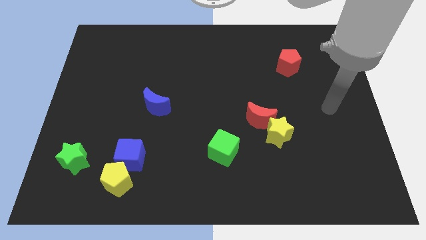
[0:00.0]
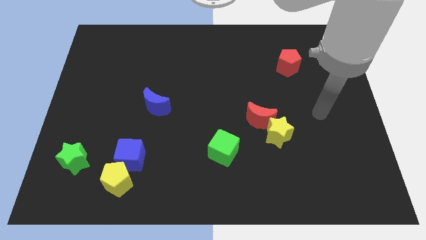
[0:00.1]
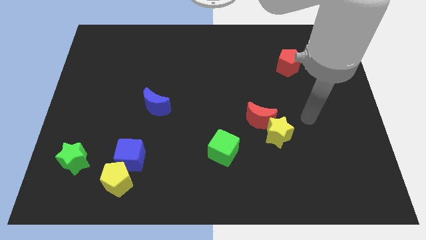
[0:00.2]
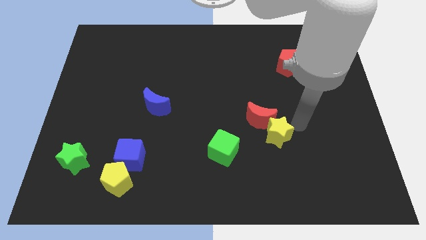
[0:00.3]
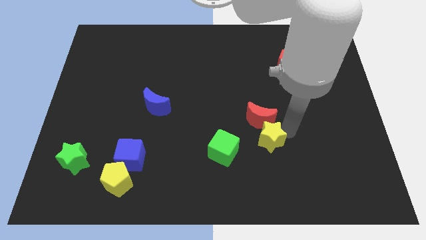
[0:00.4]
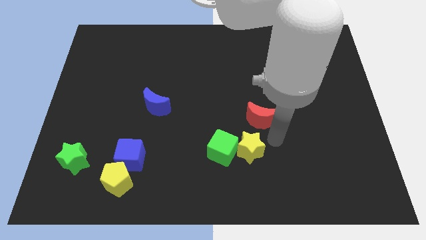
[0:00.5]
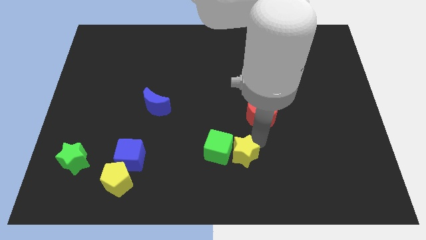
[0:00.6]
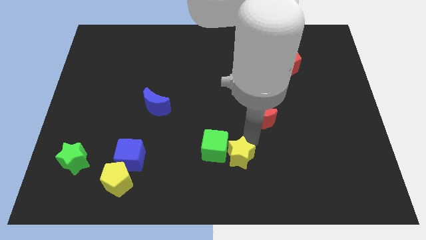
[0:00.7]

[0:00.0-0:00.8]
separate the red moon from the yellow star

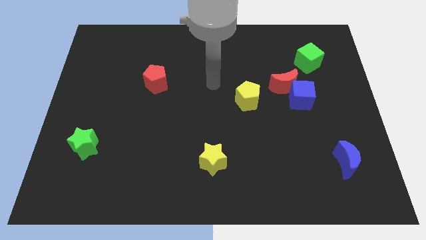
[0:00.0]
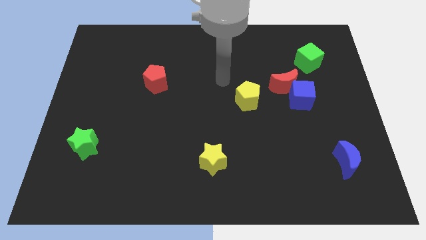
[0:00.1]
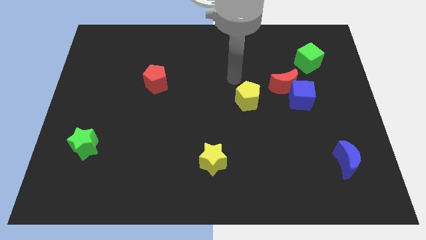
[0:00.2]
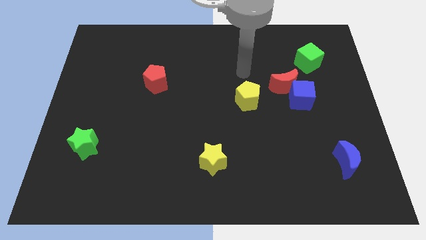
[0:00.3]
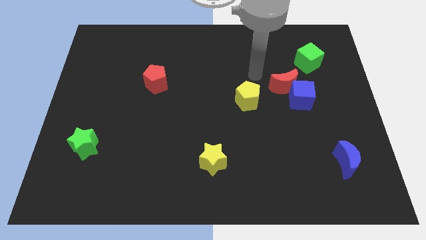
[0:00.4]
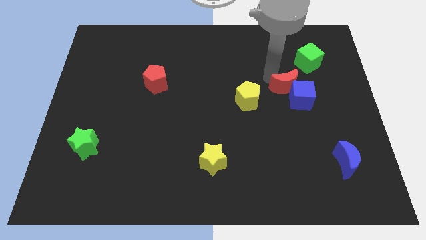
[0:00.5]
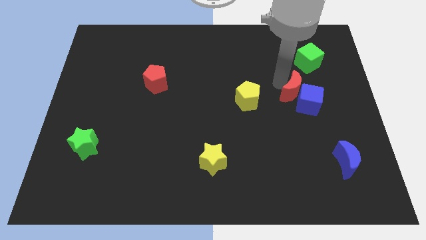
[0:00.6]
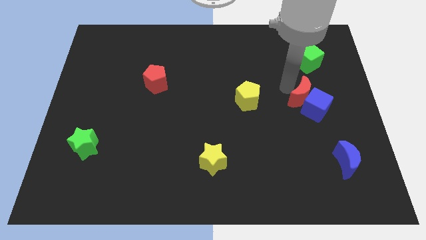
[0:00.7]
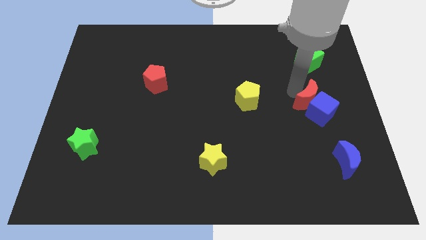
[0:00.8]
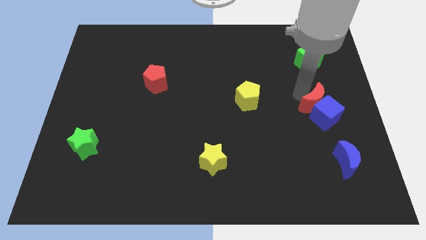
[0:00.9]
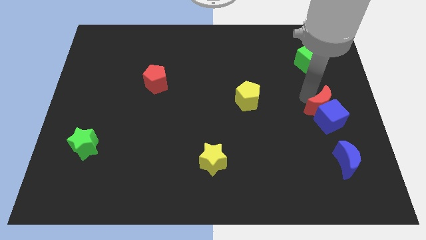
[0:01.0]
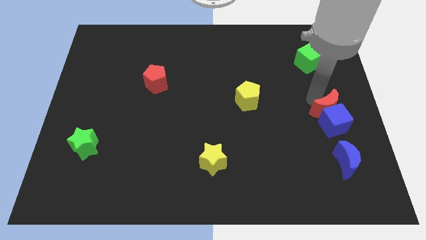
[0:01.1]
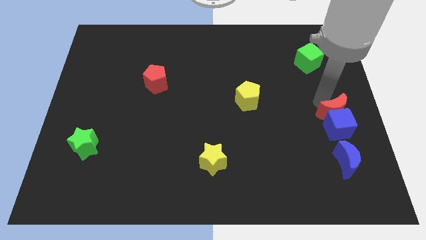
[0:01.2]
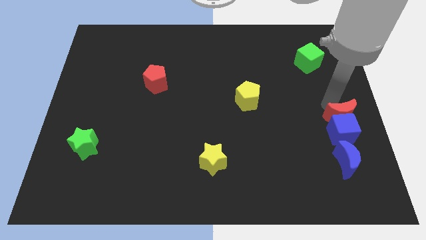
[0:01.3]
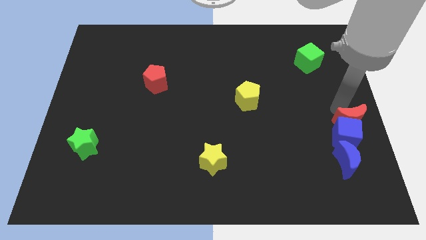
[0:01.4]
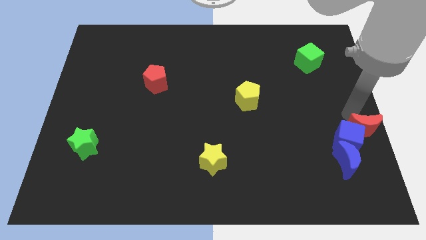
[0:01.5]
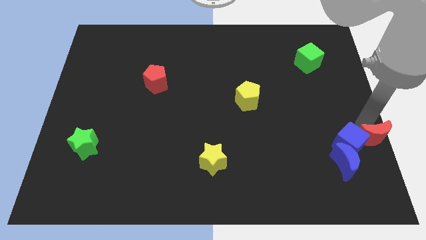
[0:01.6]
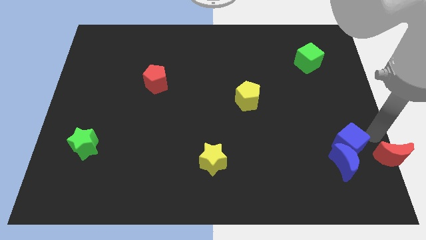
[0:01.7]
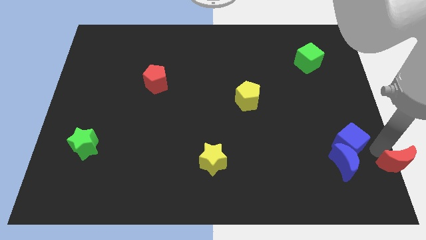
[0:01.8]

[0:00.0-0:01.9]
separate the blue cube from the red moon

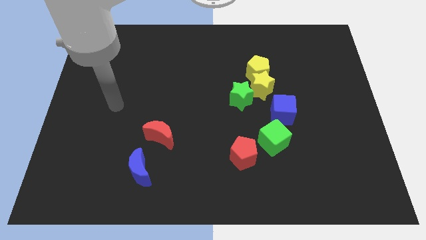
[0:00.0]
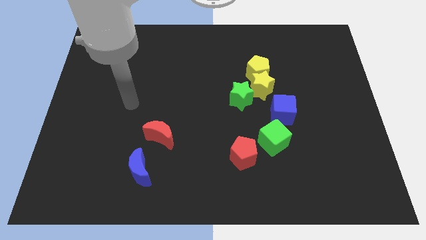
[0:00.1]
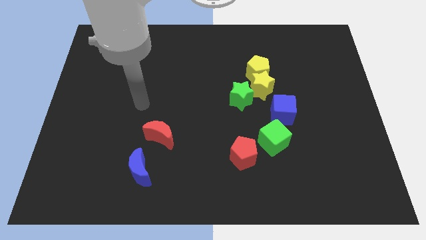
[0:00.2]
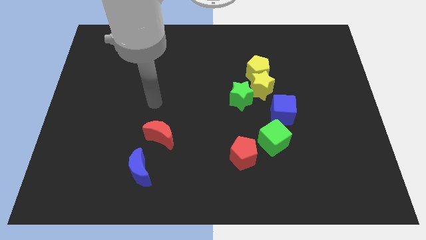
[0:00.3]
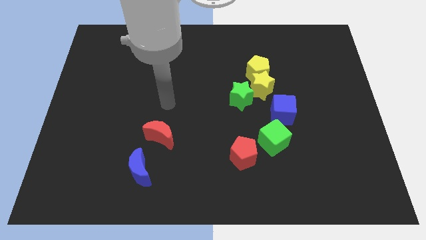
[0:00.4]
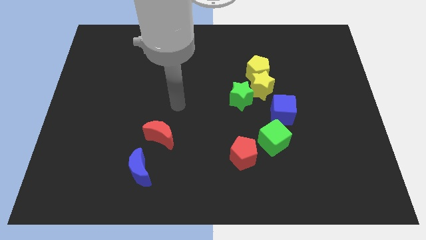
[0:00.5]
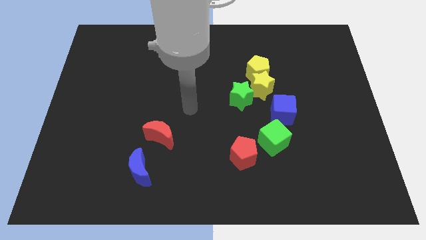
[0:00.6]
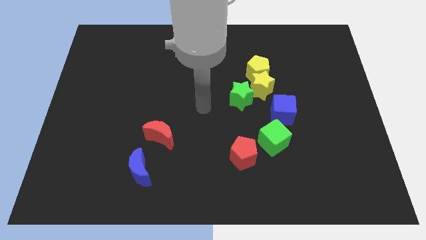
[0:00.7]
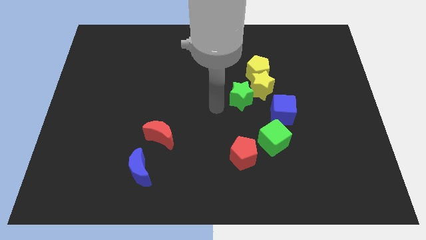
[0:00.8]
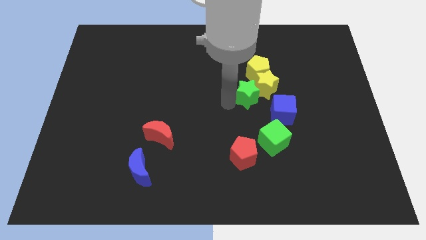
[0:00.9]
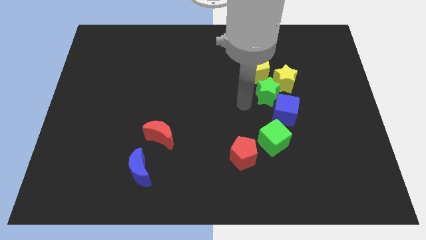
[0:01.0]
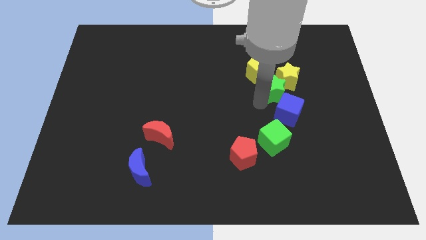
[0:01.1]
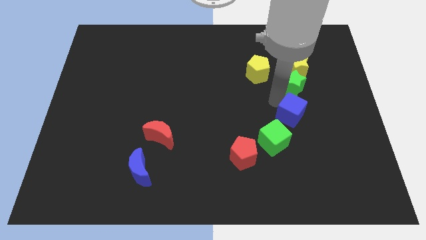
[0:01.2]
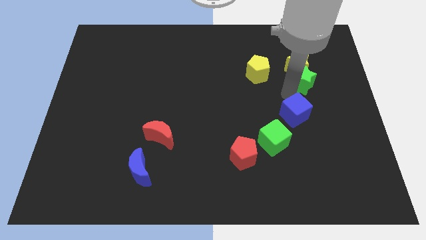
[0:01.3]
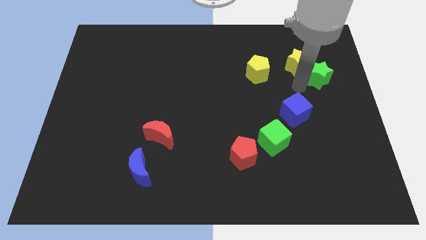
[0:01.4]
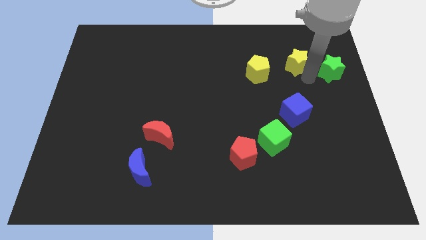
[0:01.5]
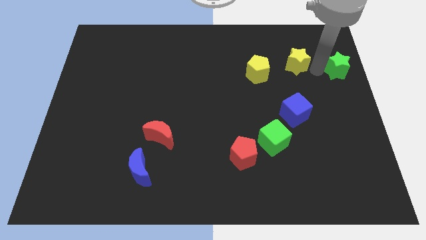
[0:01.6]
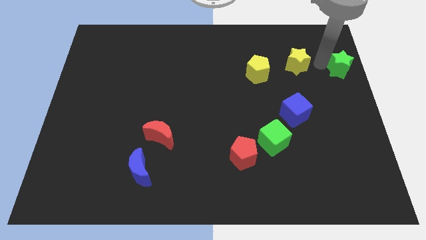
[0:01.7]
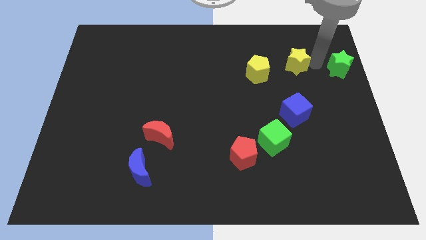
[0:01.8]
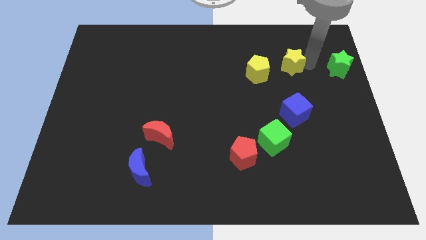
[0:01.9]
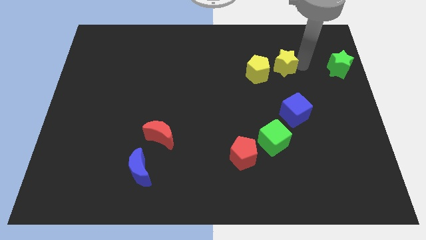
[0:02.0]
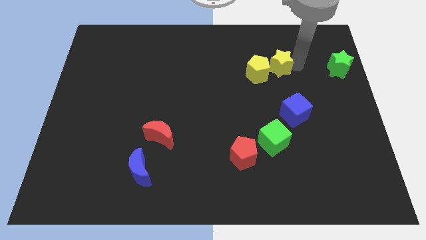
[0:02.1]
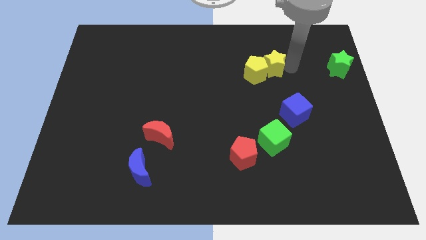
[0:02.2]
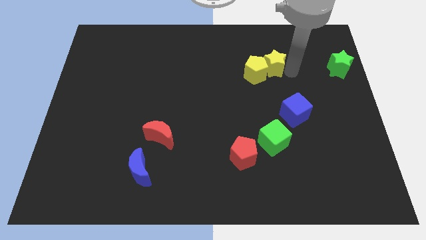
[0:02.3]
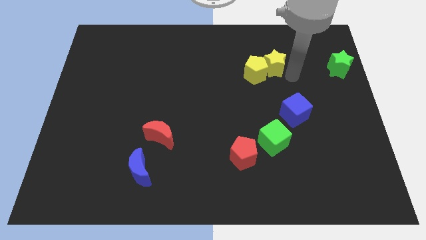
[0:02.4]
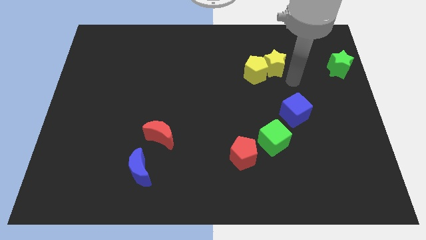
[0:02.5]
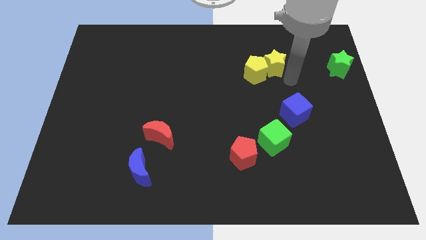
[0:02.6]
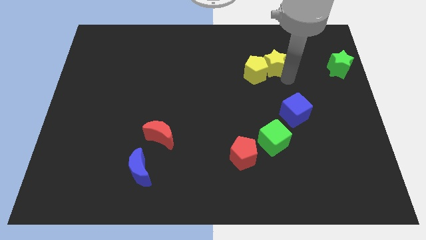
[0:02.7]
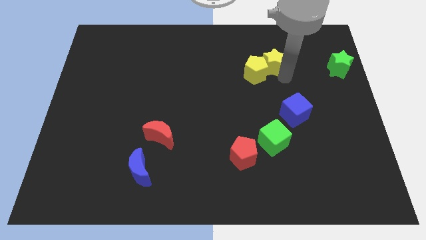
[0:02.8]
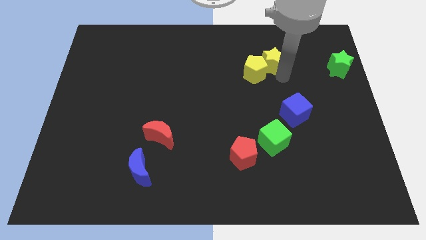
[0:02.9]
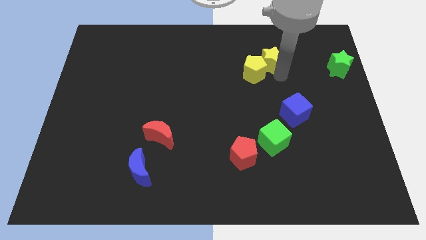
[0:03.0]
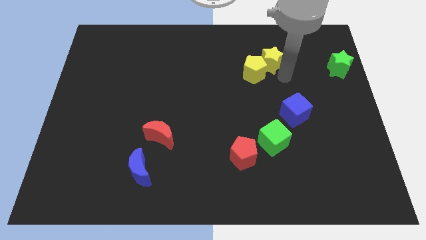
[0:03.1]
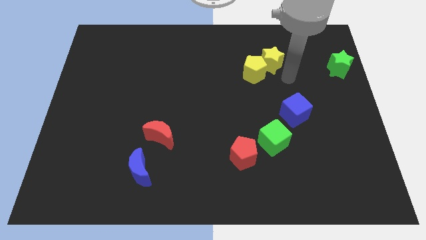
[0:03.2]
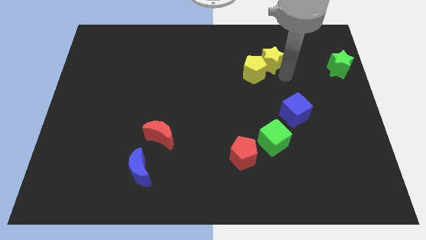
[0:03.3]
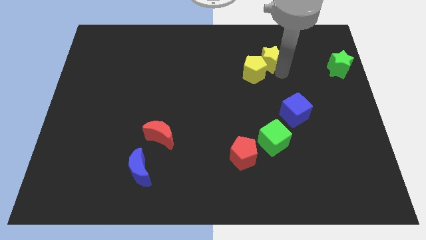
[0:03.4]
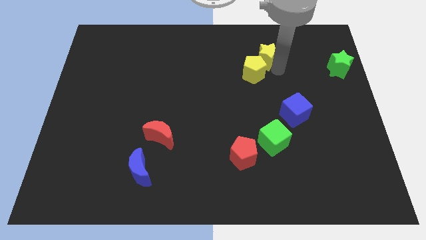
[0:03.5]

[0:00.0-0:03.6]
separate the yellow star from the group of blocks

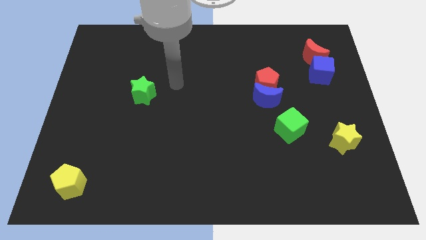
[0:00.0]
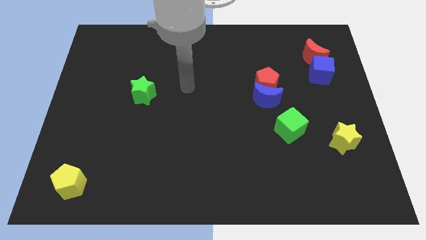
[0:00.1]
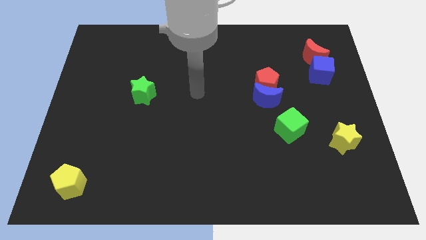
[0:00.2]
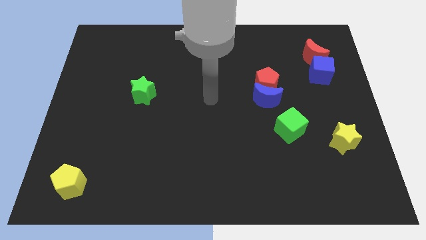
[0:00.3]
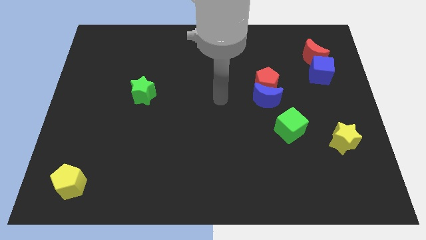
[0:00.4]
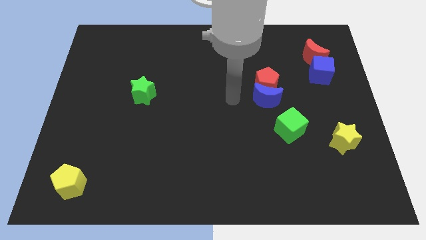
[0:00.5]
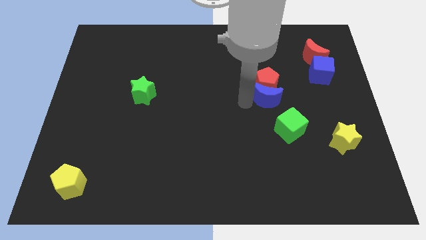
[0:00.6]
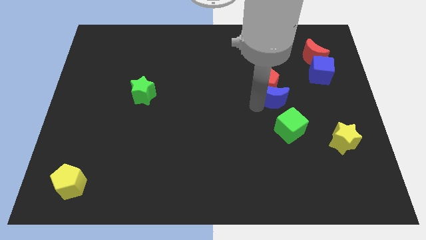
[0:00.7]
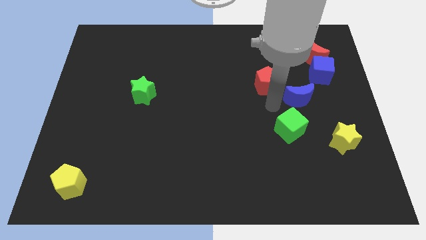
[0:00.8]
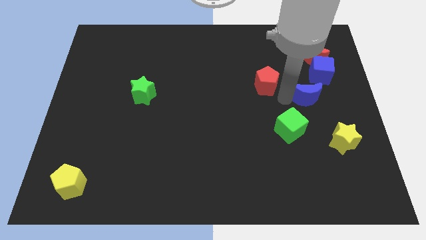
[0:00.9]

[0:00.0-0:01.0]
separate the red pentagon from the blue moon

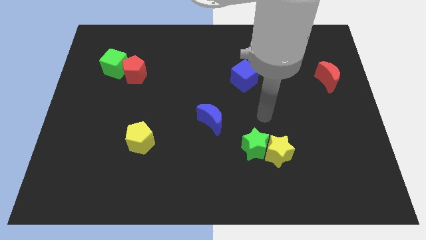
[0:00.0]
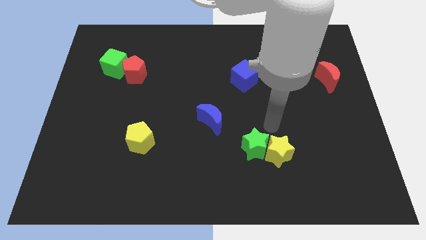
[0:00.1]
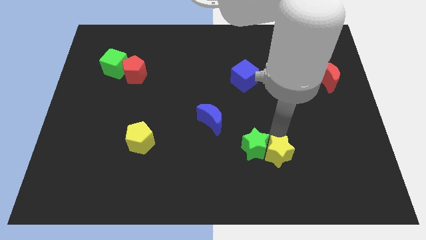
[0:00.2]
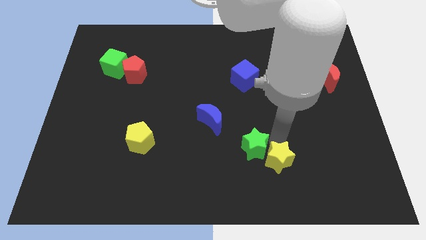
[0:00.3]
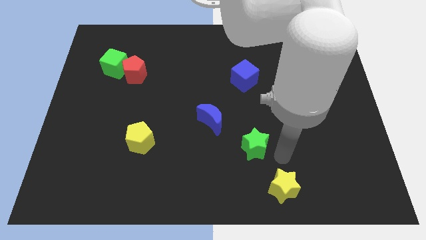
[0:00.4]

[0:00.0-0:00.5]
pull the green star apart from the yellow star

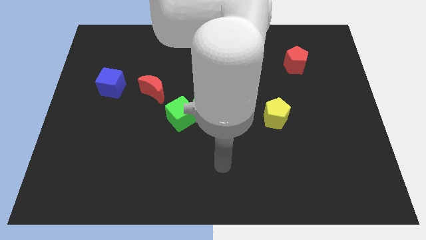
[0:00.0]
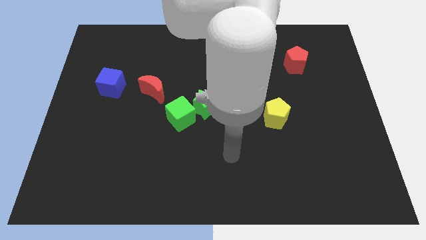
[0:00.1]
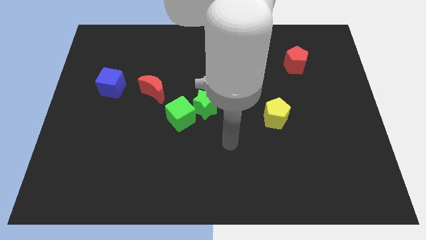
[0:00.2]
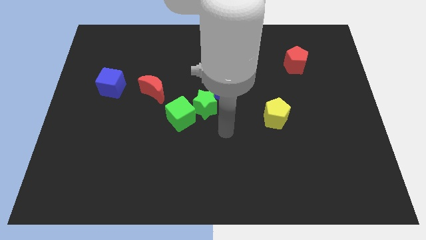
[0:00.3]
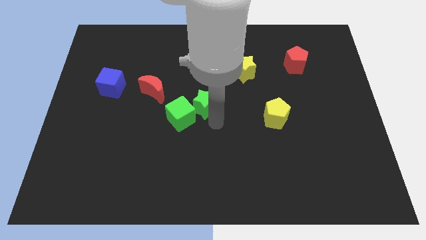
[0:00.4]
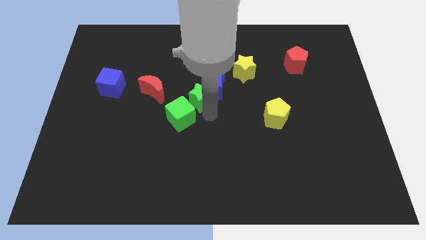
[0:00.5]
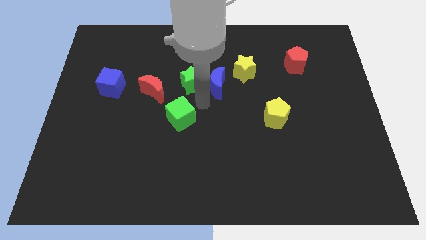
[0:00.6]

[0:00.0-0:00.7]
separate the green cube from the green star

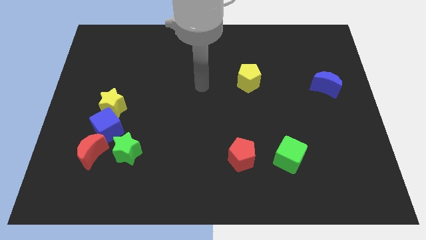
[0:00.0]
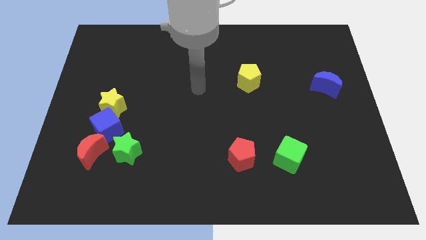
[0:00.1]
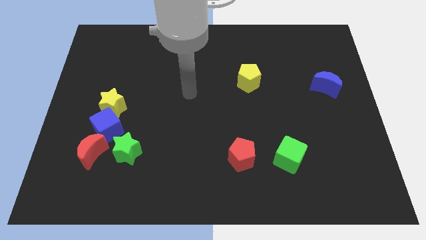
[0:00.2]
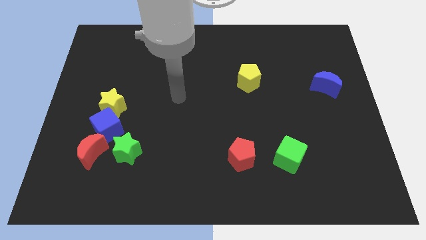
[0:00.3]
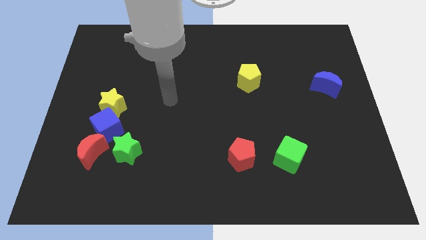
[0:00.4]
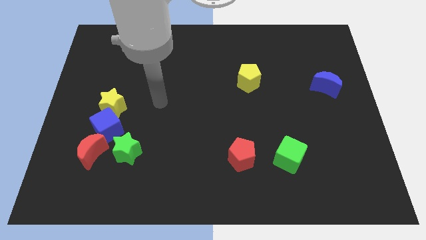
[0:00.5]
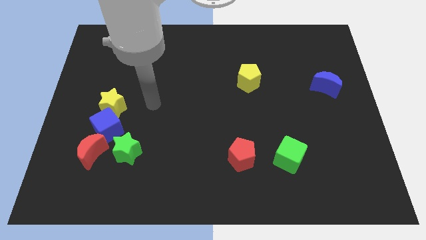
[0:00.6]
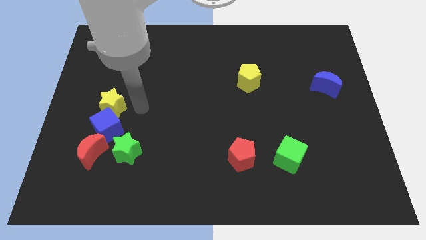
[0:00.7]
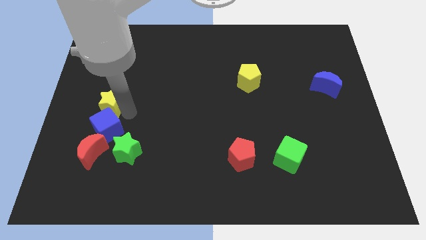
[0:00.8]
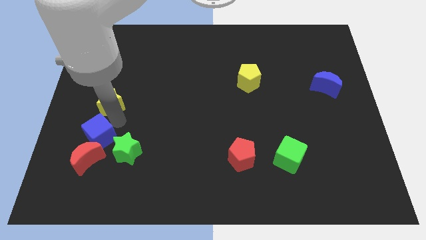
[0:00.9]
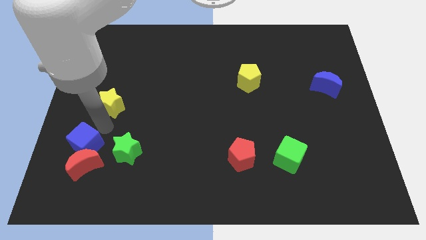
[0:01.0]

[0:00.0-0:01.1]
separate the yellow star from the blue cube
